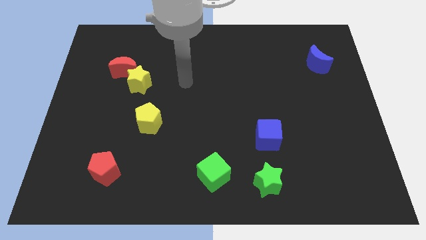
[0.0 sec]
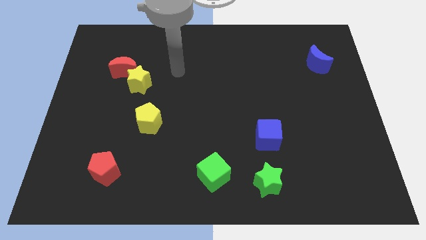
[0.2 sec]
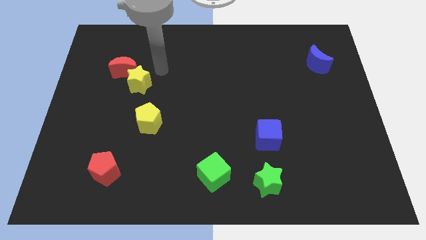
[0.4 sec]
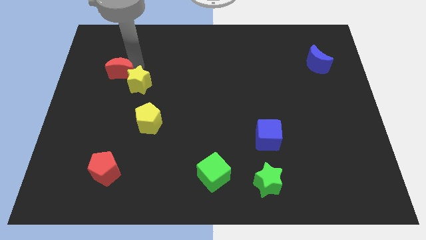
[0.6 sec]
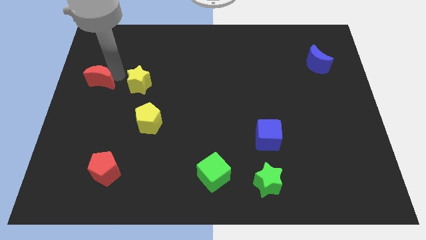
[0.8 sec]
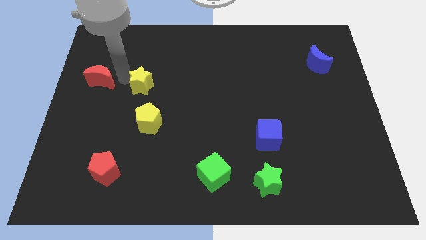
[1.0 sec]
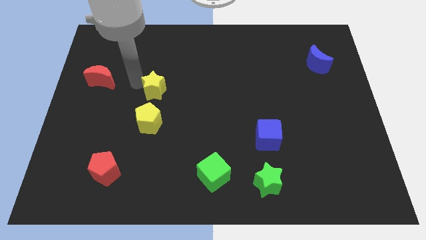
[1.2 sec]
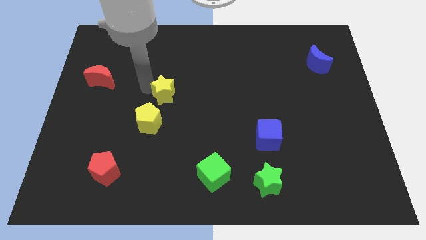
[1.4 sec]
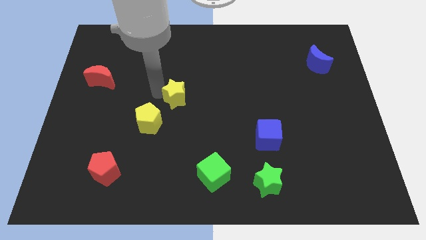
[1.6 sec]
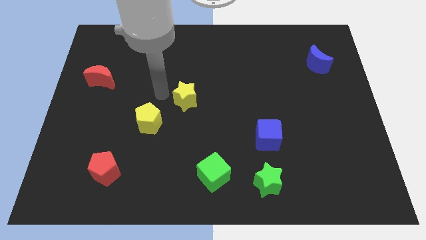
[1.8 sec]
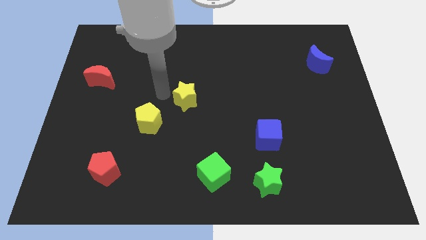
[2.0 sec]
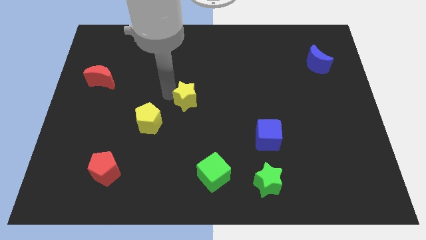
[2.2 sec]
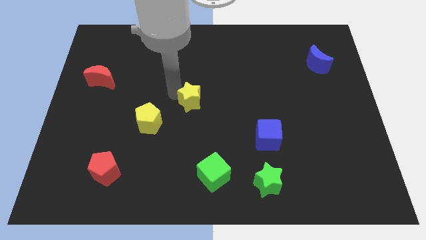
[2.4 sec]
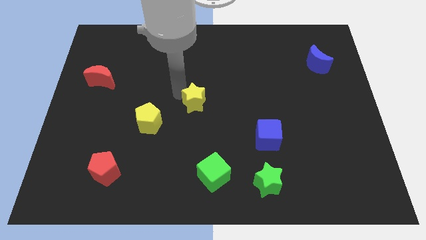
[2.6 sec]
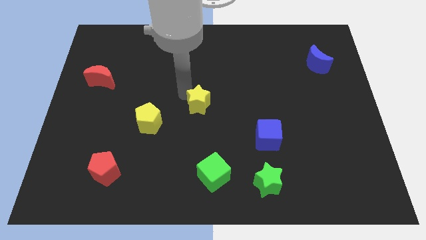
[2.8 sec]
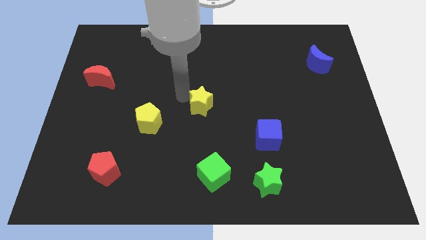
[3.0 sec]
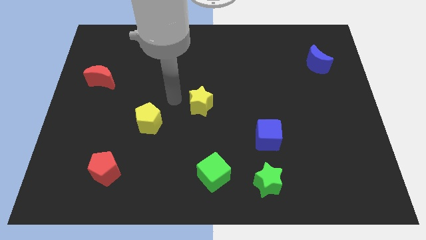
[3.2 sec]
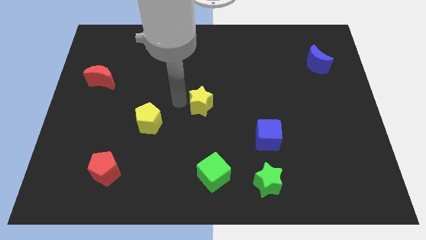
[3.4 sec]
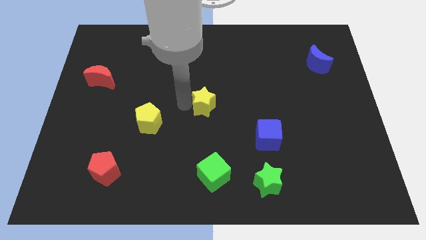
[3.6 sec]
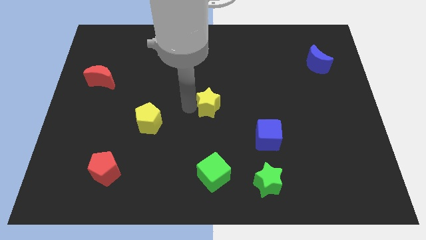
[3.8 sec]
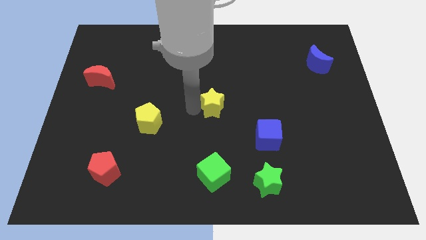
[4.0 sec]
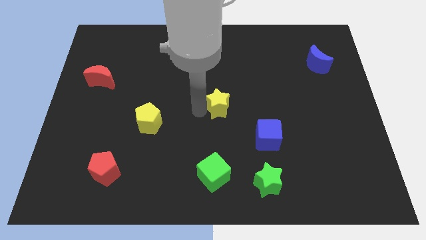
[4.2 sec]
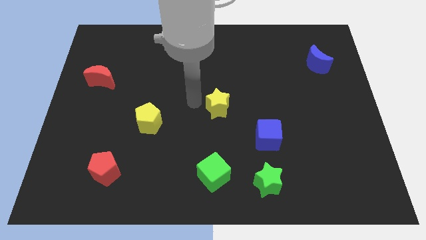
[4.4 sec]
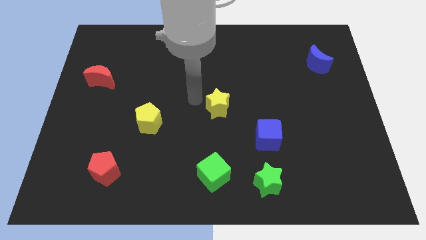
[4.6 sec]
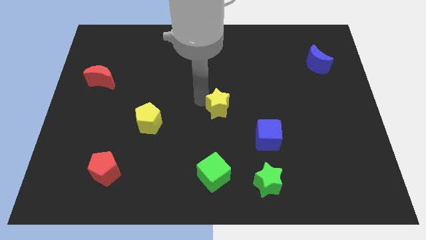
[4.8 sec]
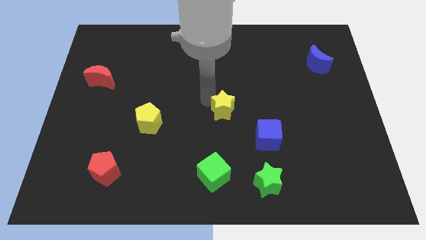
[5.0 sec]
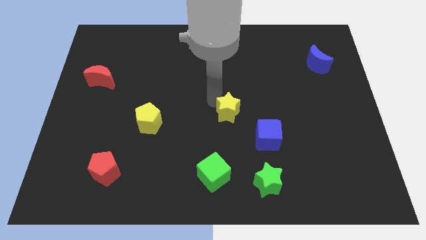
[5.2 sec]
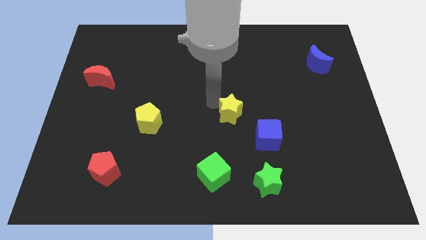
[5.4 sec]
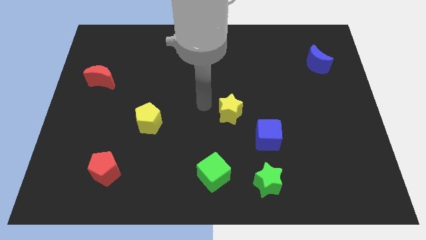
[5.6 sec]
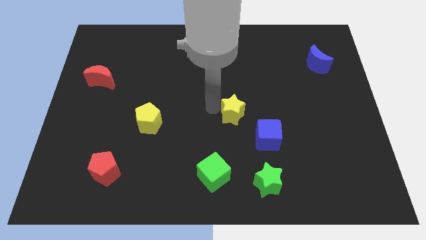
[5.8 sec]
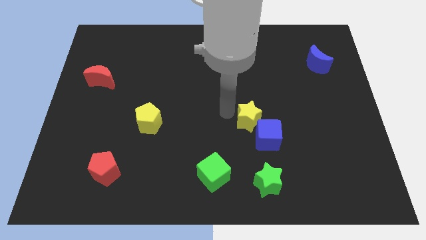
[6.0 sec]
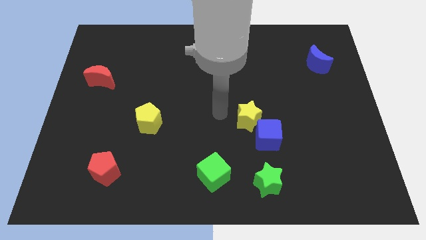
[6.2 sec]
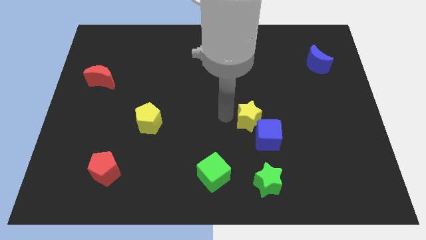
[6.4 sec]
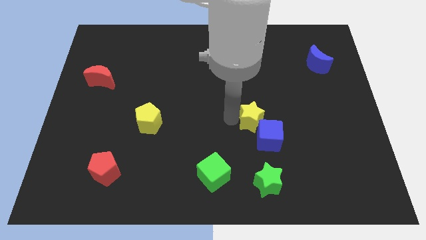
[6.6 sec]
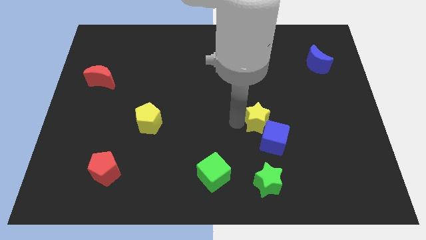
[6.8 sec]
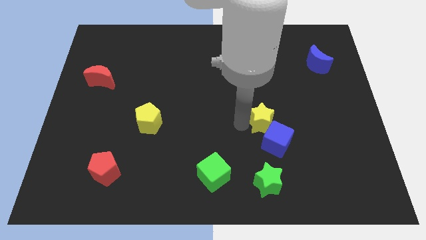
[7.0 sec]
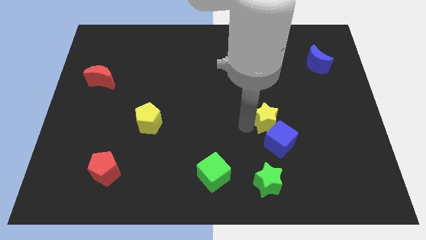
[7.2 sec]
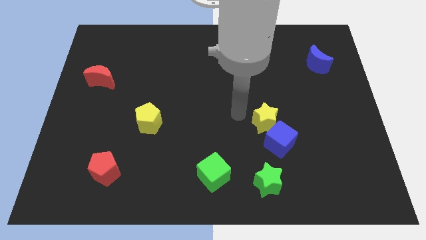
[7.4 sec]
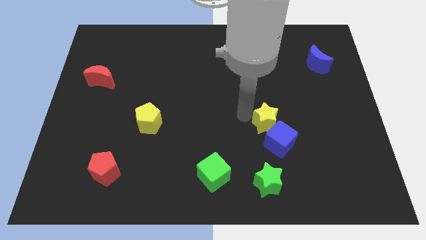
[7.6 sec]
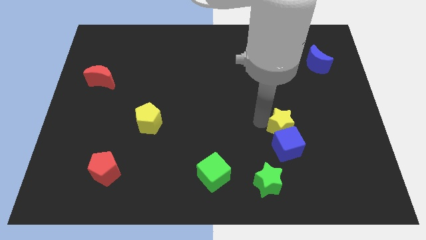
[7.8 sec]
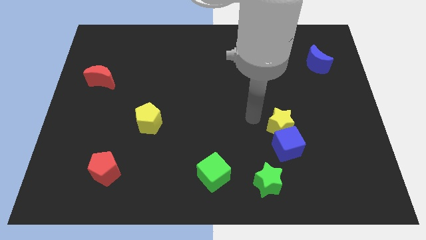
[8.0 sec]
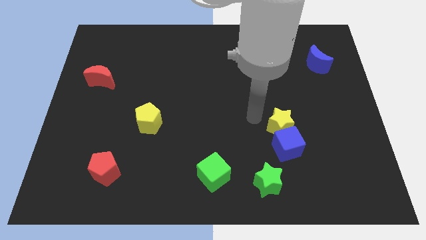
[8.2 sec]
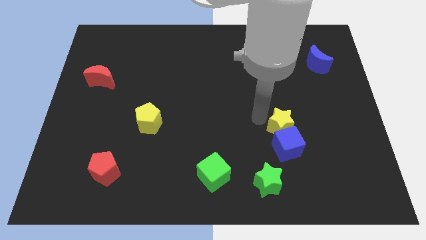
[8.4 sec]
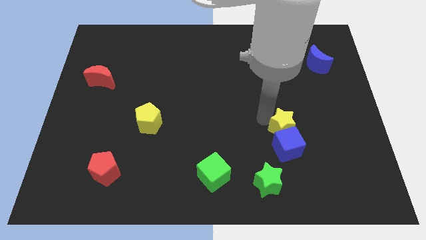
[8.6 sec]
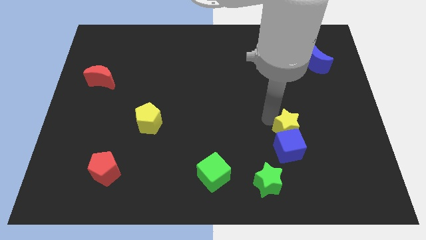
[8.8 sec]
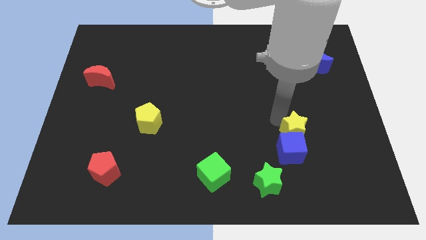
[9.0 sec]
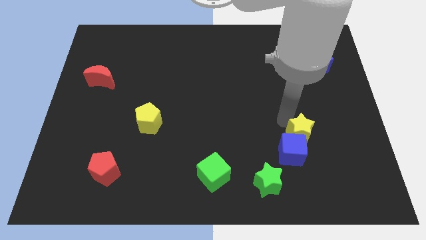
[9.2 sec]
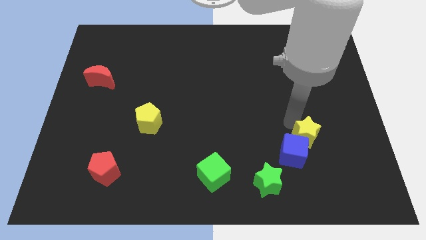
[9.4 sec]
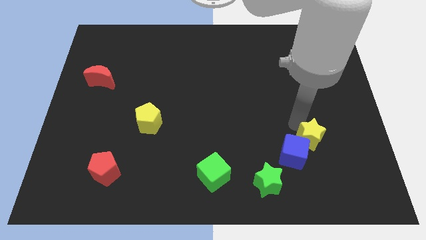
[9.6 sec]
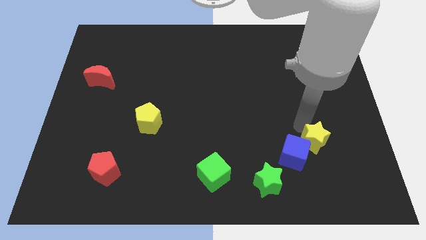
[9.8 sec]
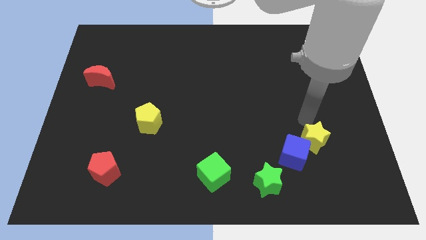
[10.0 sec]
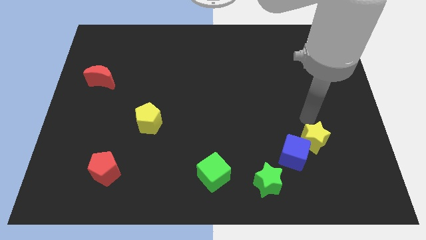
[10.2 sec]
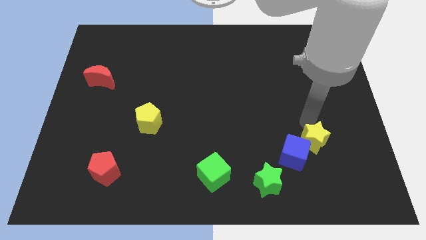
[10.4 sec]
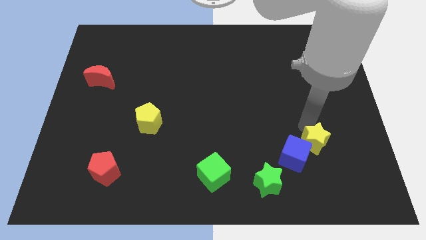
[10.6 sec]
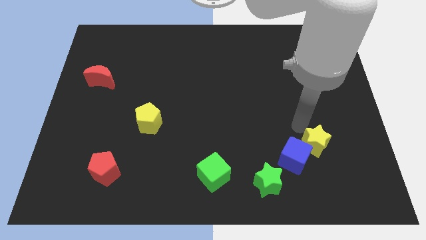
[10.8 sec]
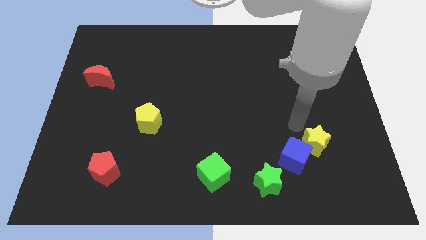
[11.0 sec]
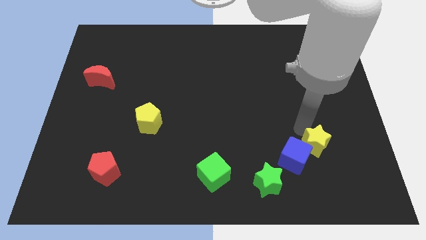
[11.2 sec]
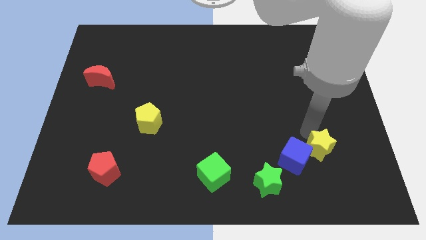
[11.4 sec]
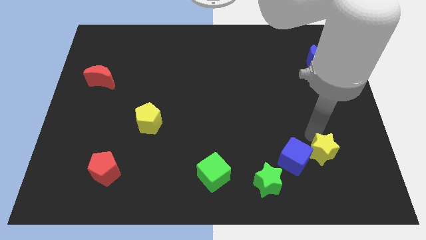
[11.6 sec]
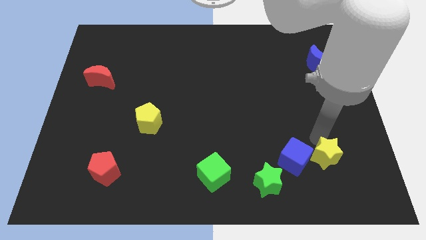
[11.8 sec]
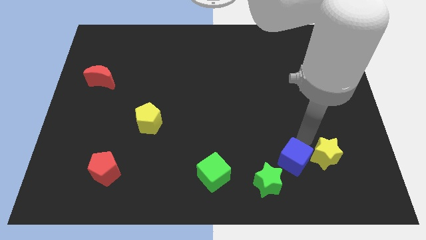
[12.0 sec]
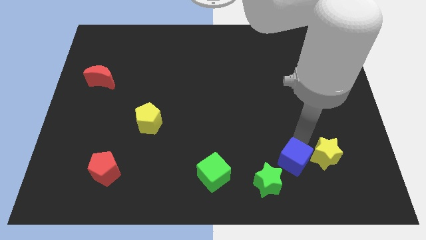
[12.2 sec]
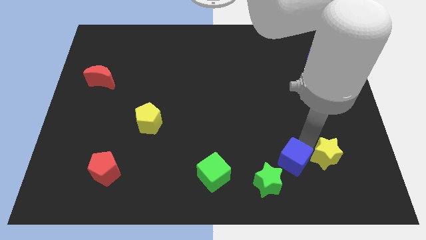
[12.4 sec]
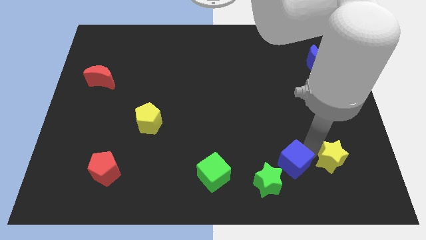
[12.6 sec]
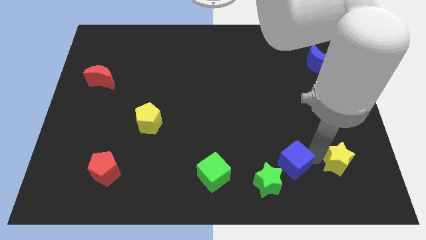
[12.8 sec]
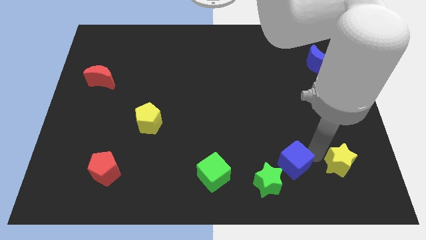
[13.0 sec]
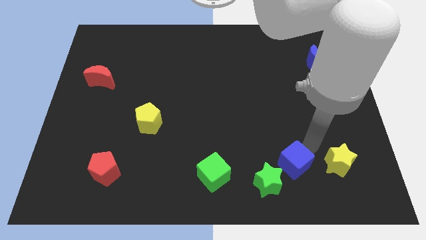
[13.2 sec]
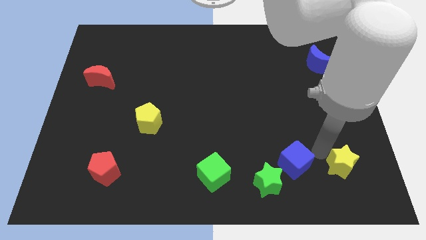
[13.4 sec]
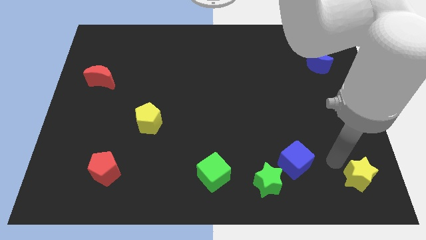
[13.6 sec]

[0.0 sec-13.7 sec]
push the yellow star to the bottom right of the board
